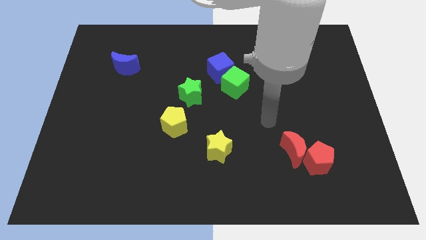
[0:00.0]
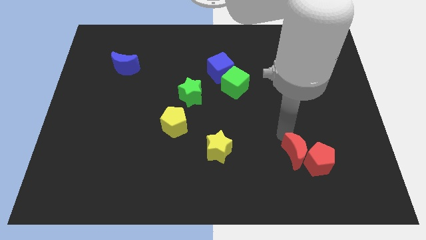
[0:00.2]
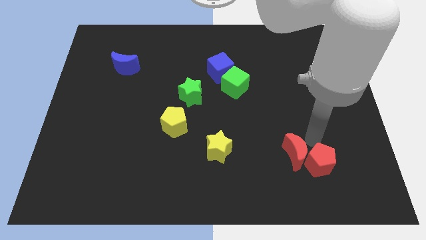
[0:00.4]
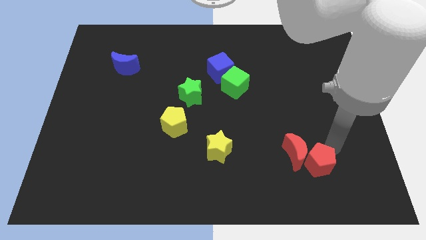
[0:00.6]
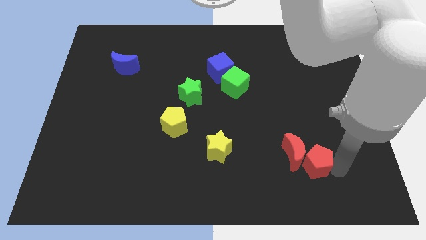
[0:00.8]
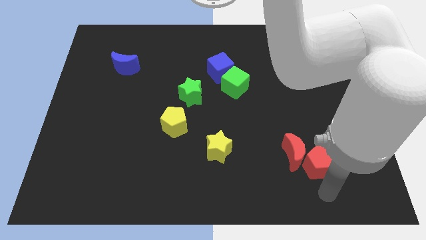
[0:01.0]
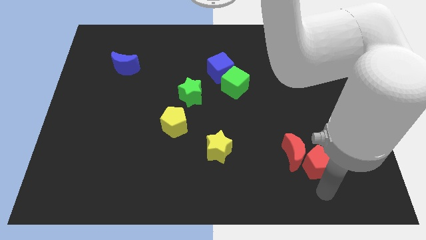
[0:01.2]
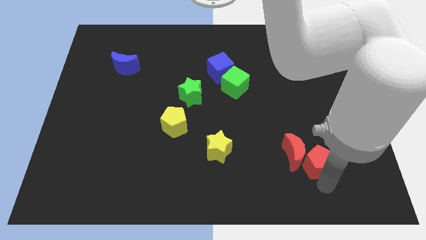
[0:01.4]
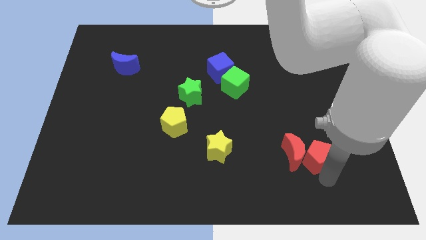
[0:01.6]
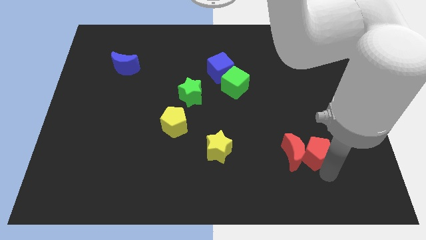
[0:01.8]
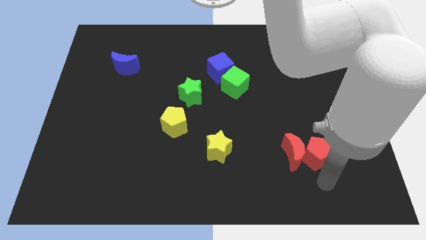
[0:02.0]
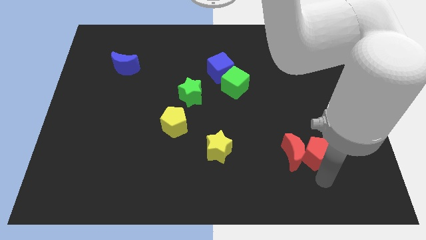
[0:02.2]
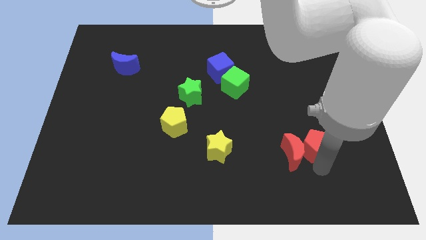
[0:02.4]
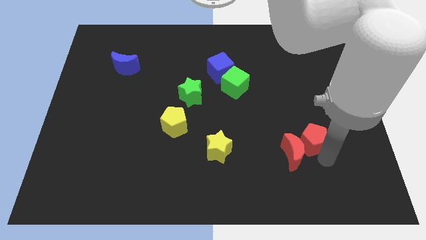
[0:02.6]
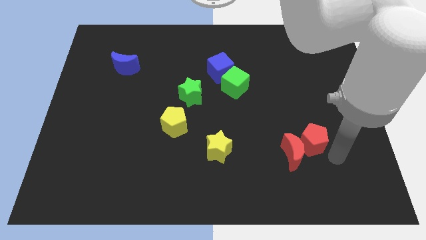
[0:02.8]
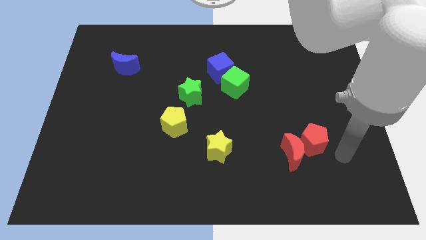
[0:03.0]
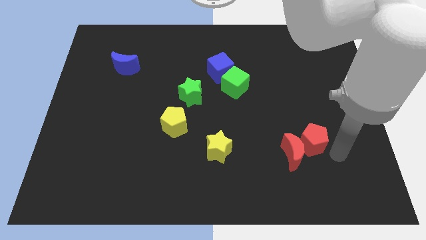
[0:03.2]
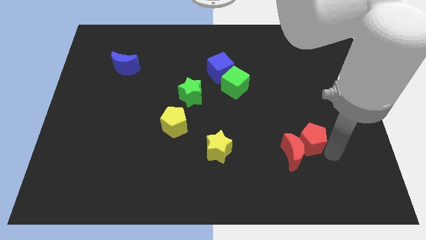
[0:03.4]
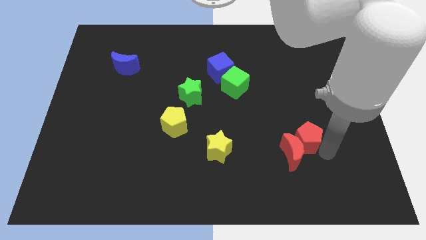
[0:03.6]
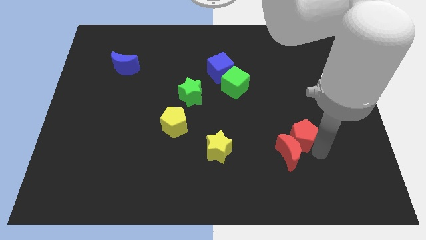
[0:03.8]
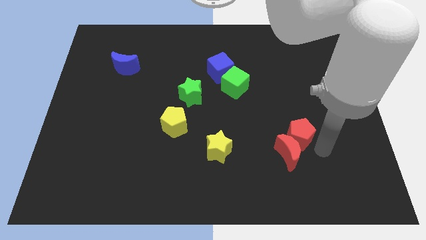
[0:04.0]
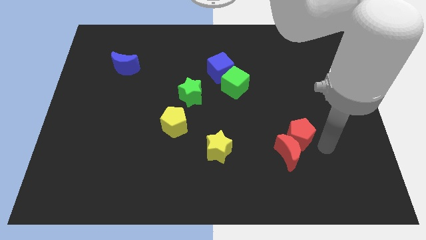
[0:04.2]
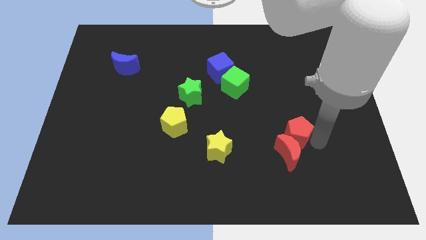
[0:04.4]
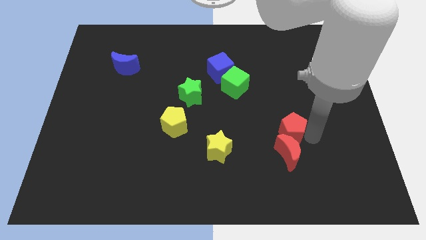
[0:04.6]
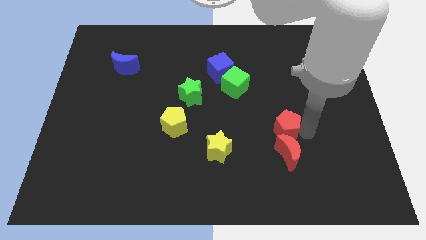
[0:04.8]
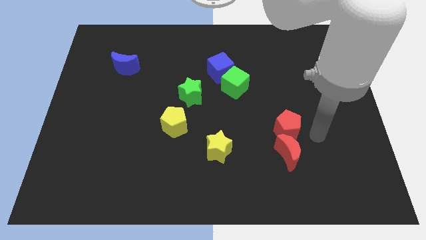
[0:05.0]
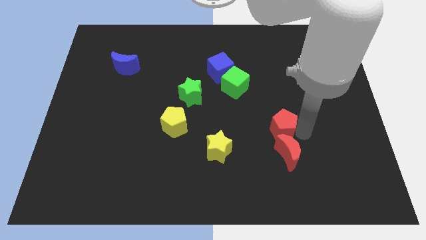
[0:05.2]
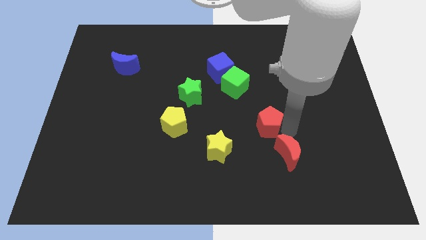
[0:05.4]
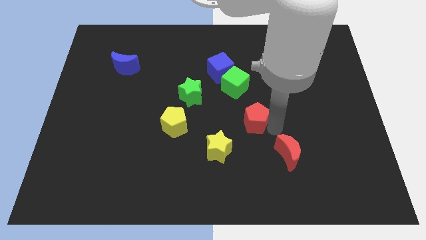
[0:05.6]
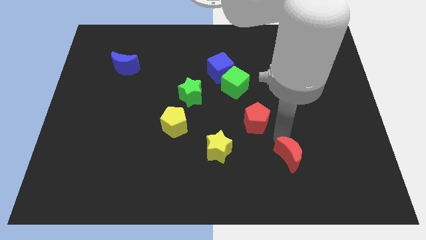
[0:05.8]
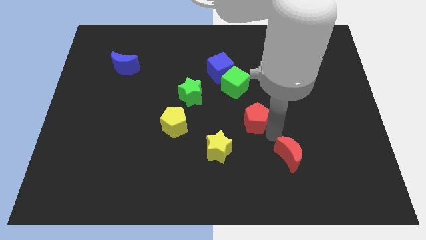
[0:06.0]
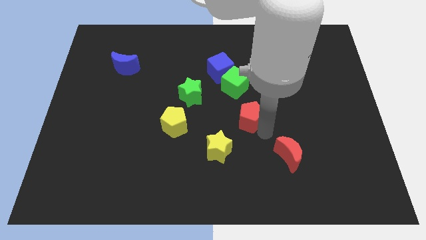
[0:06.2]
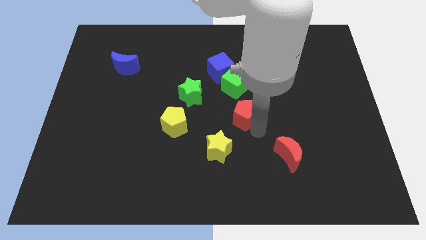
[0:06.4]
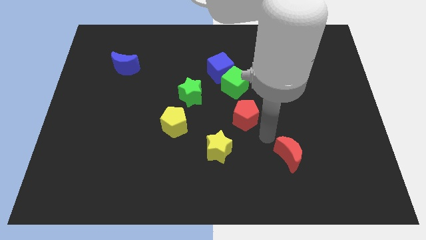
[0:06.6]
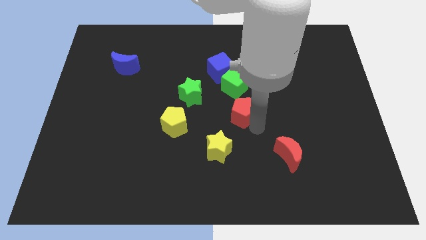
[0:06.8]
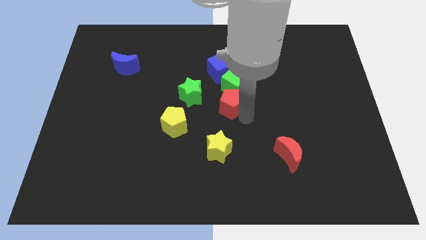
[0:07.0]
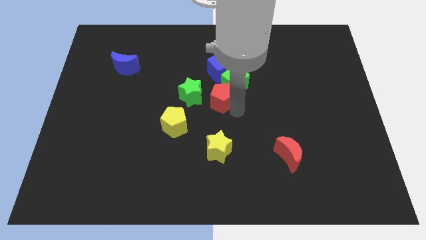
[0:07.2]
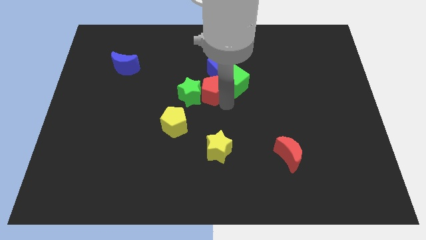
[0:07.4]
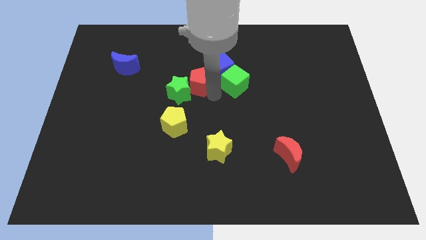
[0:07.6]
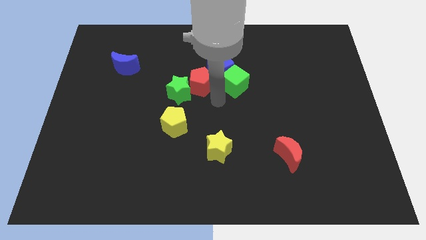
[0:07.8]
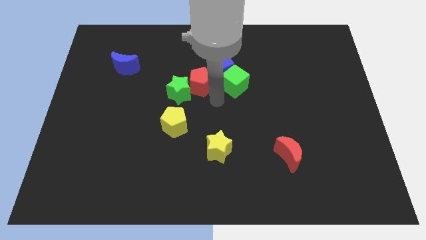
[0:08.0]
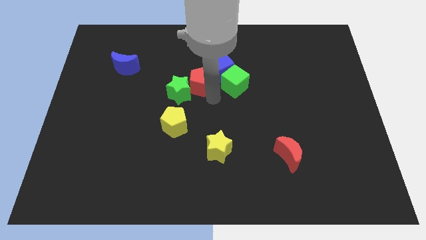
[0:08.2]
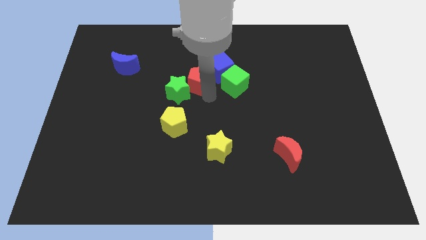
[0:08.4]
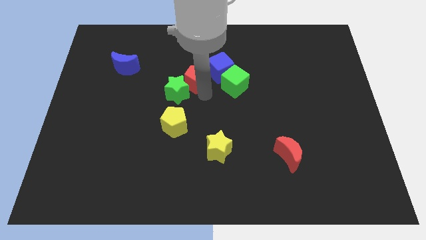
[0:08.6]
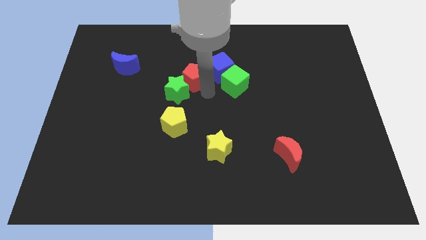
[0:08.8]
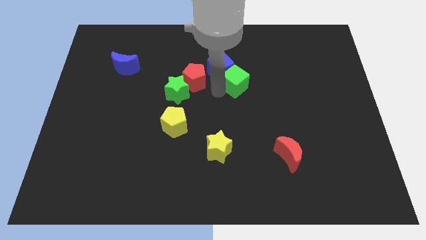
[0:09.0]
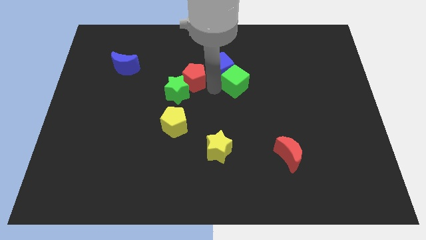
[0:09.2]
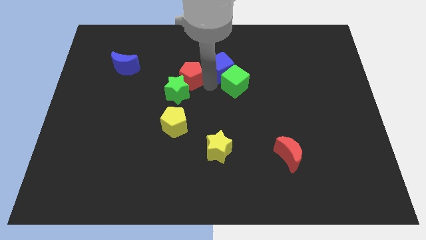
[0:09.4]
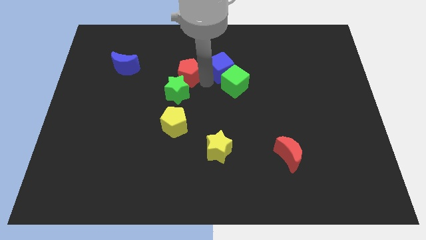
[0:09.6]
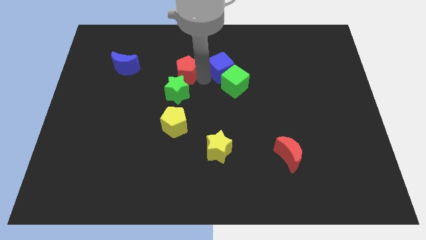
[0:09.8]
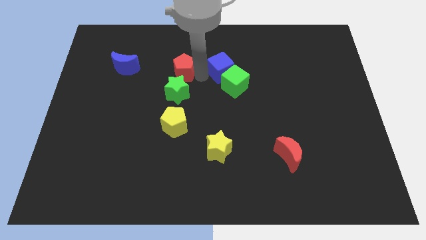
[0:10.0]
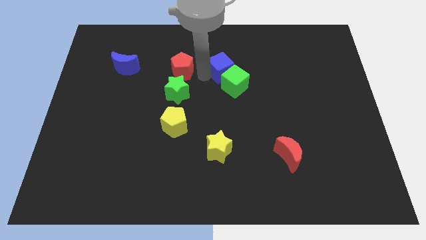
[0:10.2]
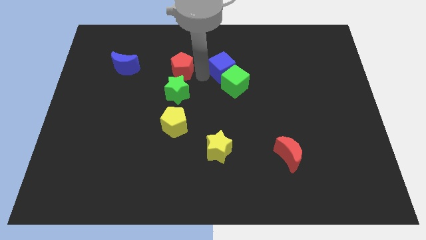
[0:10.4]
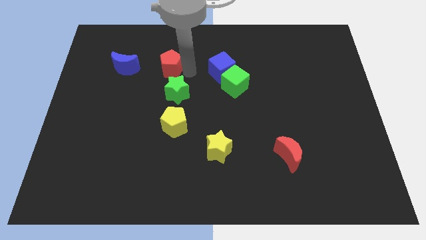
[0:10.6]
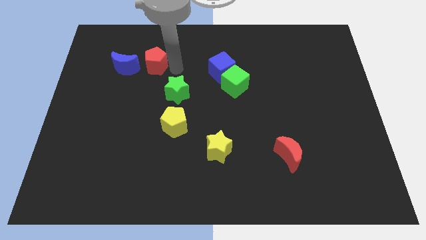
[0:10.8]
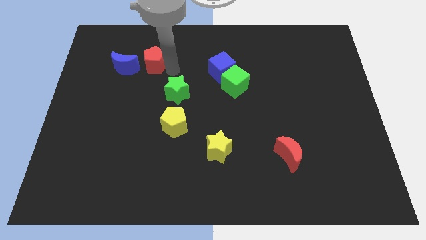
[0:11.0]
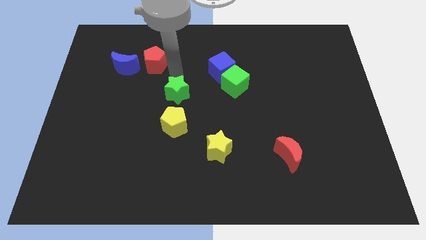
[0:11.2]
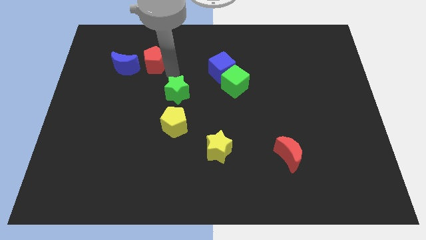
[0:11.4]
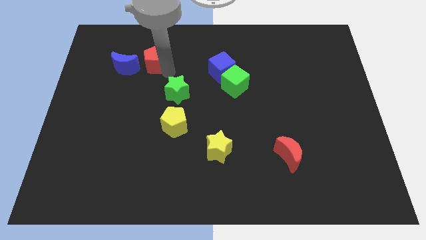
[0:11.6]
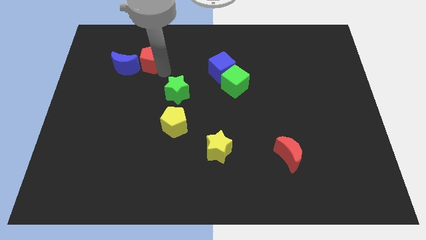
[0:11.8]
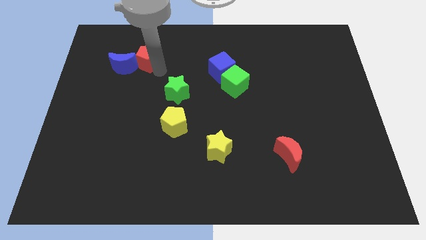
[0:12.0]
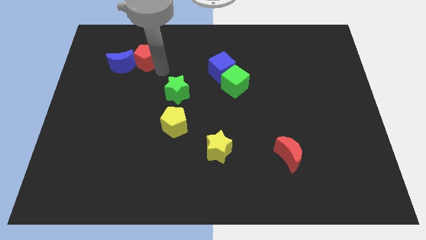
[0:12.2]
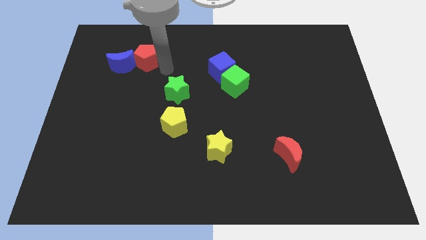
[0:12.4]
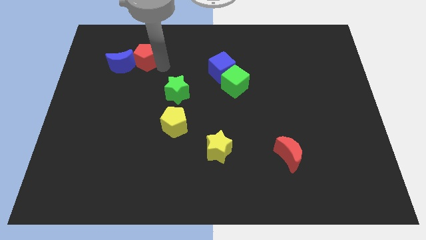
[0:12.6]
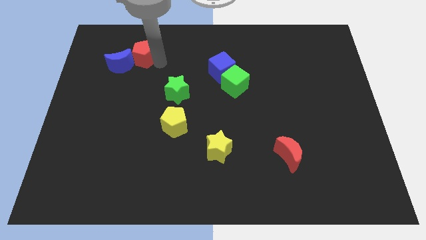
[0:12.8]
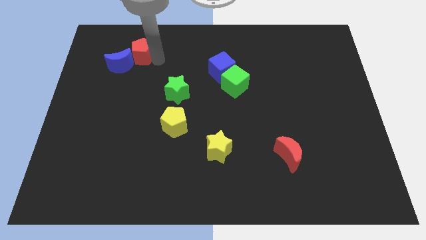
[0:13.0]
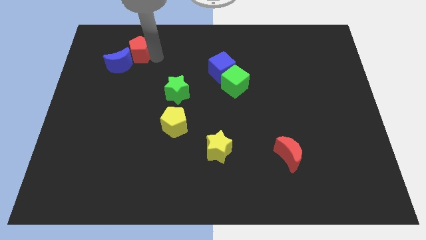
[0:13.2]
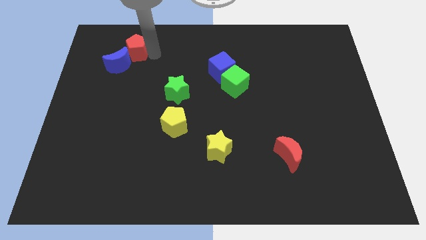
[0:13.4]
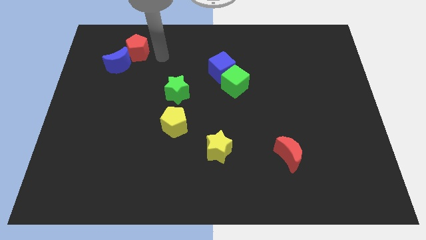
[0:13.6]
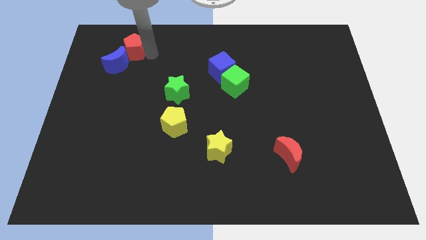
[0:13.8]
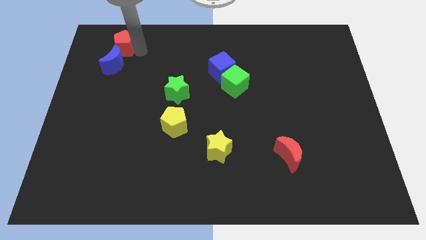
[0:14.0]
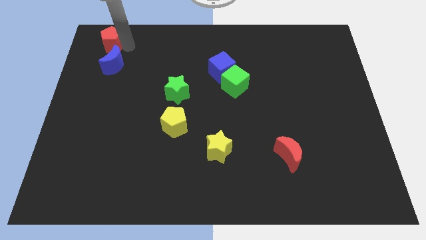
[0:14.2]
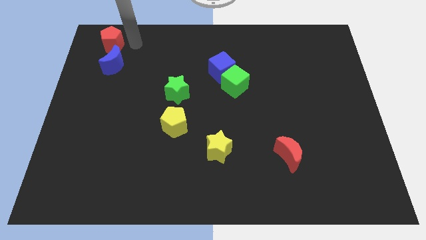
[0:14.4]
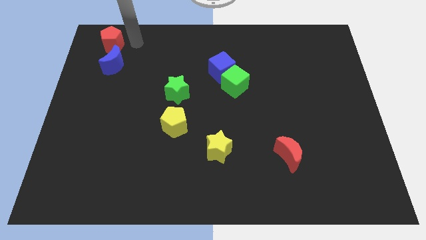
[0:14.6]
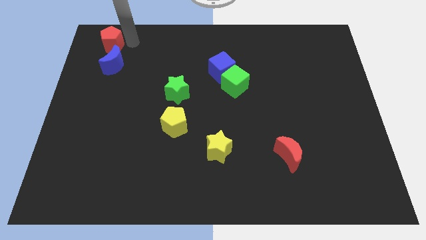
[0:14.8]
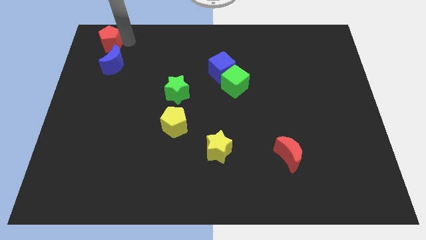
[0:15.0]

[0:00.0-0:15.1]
slide the red pentagon to the top left of the board
